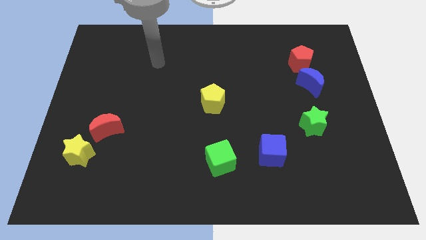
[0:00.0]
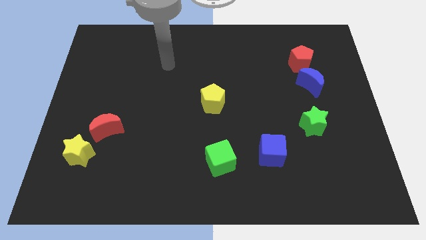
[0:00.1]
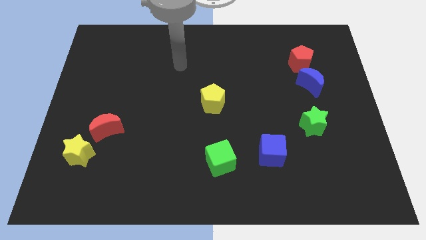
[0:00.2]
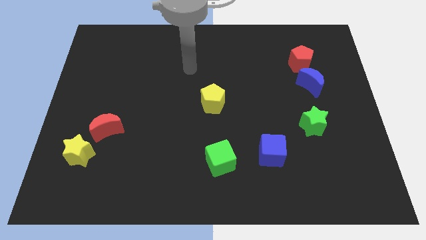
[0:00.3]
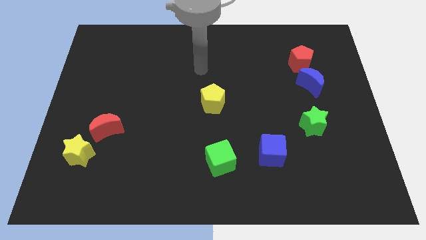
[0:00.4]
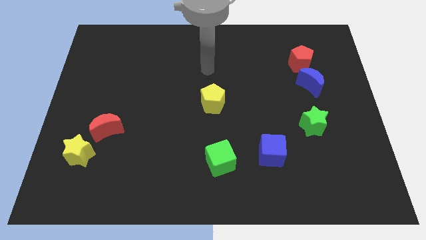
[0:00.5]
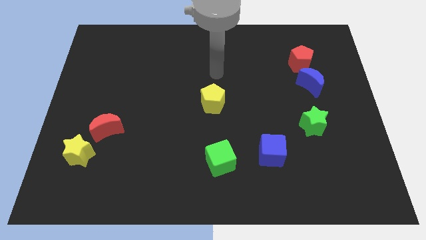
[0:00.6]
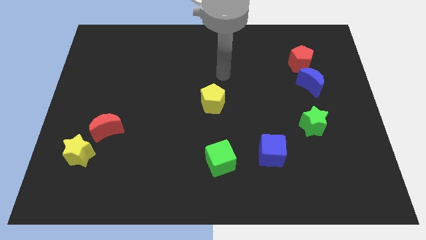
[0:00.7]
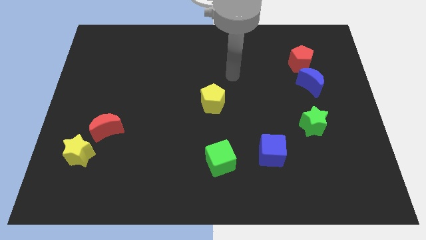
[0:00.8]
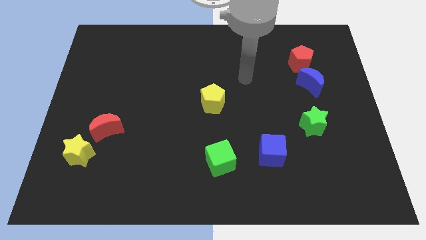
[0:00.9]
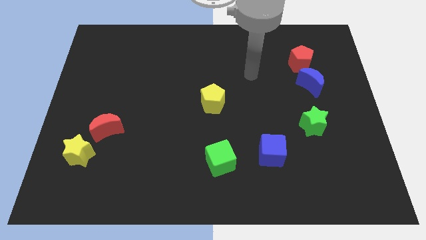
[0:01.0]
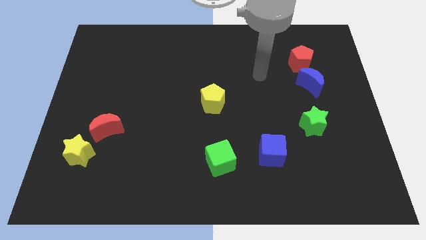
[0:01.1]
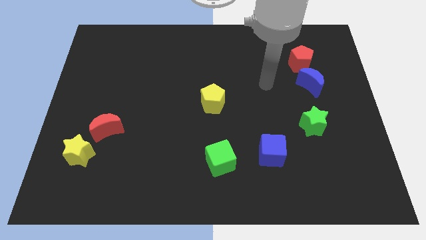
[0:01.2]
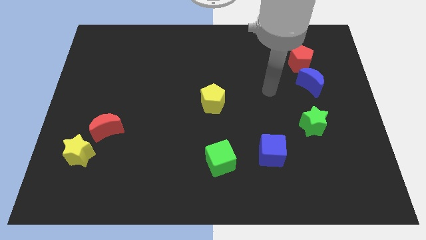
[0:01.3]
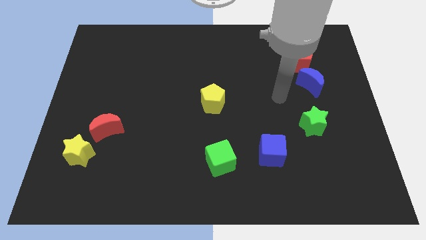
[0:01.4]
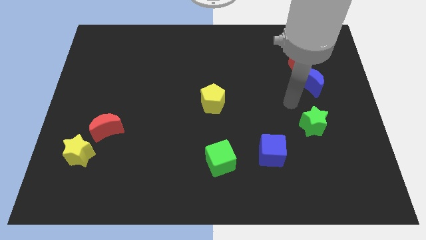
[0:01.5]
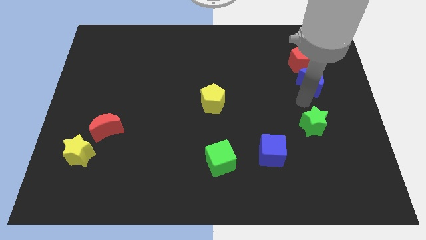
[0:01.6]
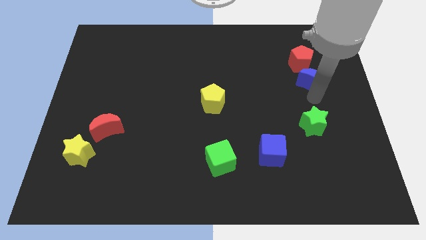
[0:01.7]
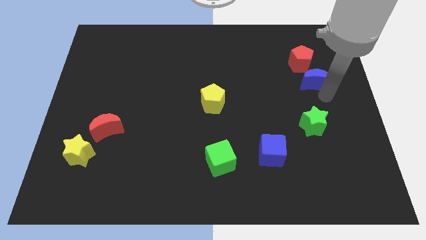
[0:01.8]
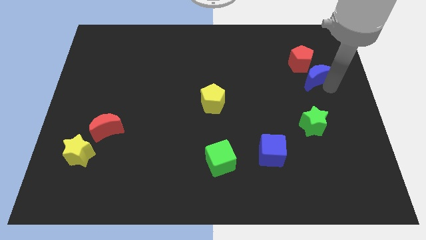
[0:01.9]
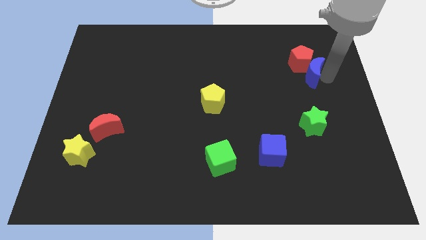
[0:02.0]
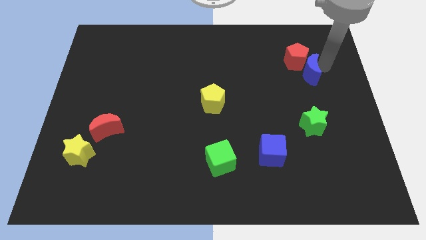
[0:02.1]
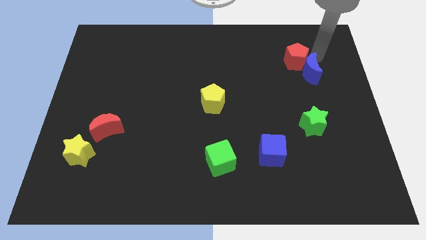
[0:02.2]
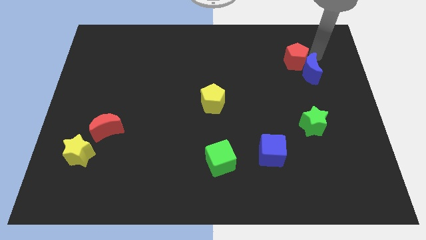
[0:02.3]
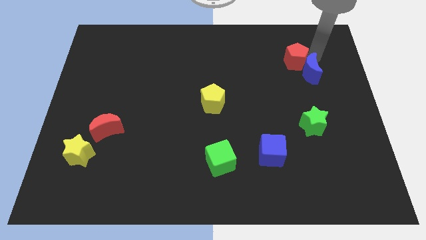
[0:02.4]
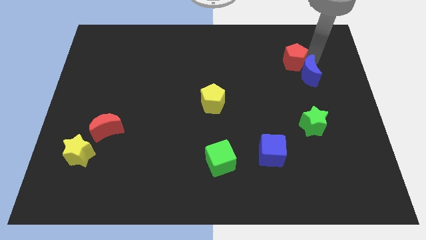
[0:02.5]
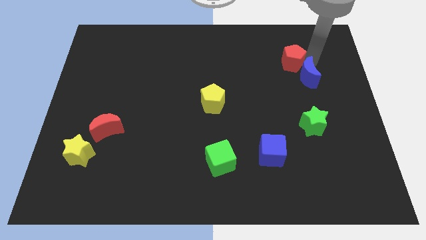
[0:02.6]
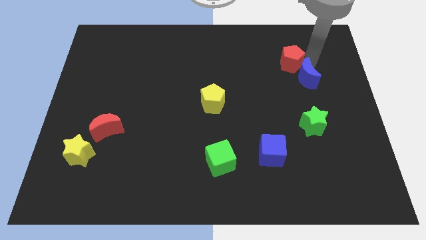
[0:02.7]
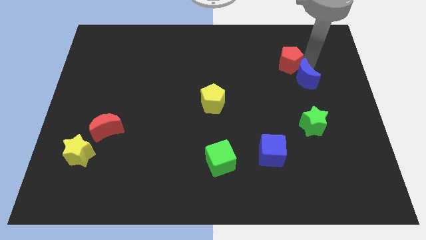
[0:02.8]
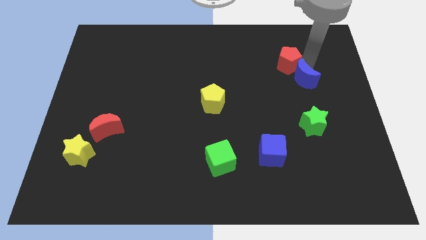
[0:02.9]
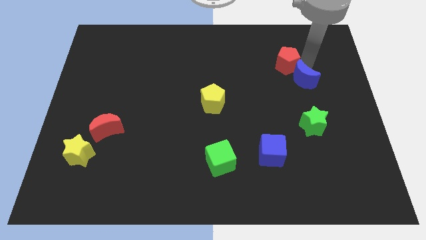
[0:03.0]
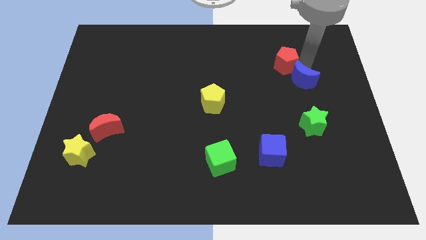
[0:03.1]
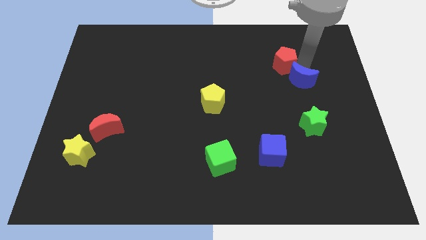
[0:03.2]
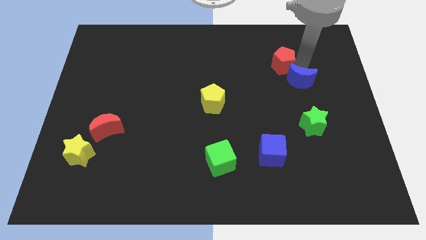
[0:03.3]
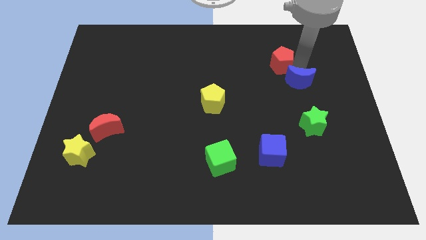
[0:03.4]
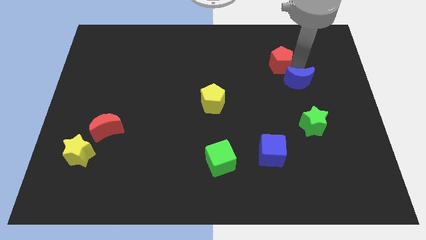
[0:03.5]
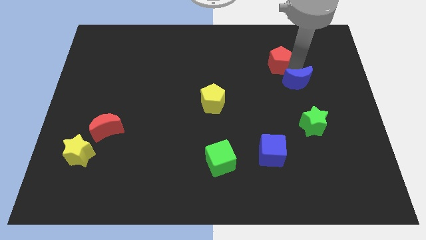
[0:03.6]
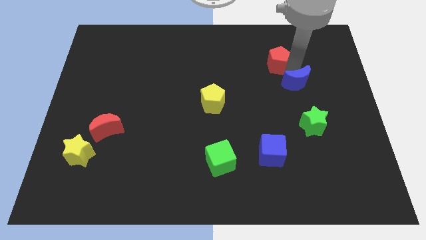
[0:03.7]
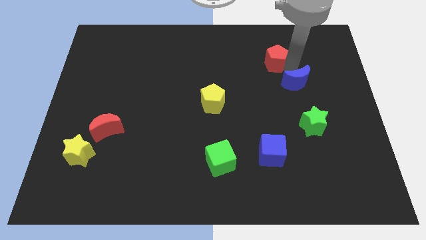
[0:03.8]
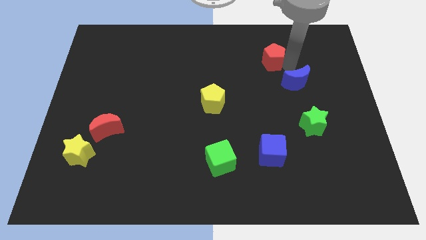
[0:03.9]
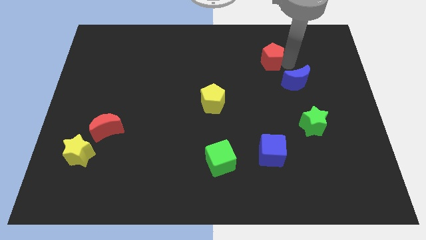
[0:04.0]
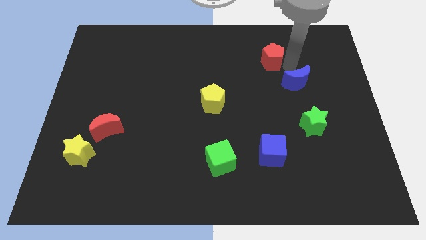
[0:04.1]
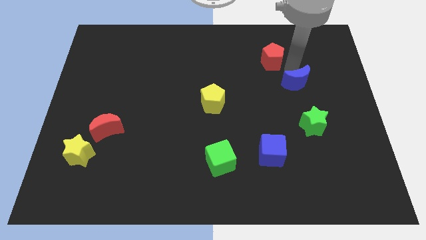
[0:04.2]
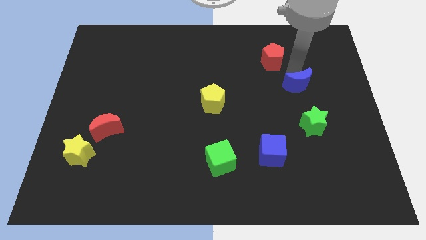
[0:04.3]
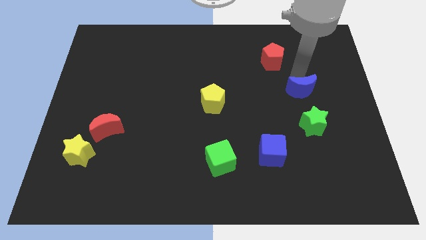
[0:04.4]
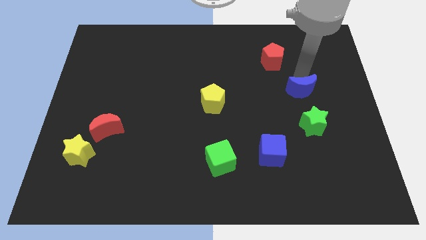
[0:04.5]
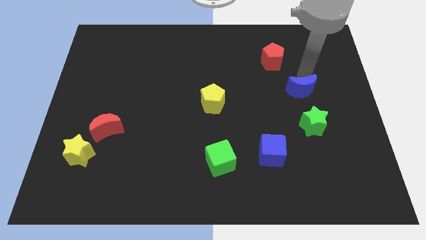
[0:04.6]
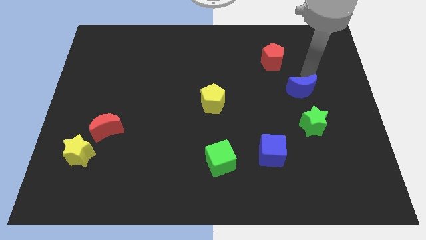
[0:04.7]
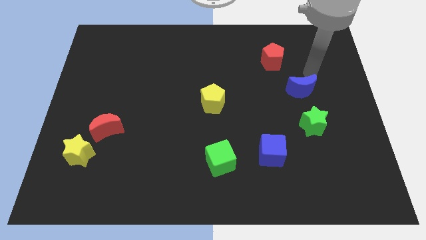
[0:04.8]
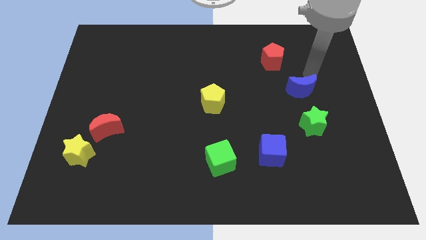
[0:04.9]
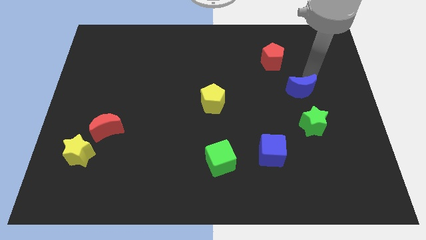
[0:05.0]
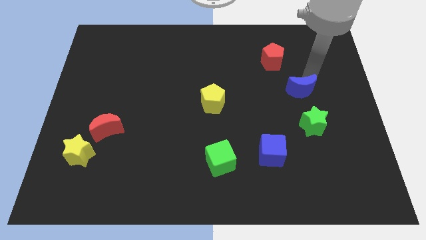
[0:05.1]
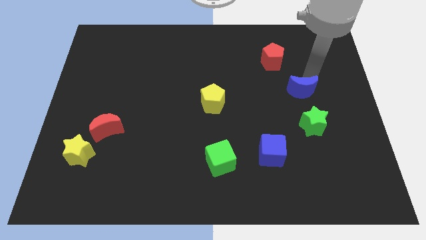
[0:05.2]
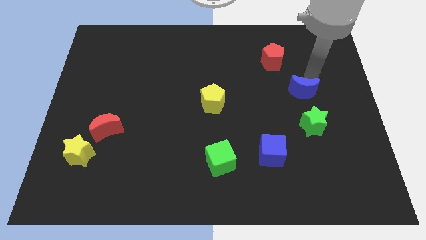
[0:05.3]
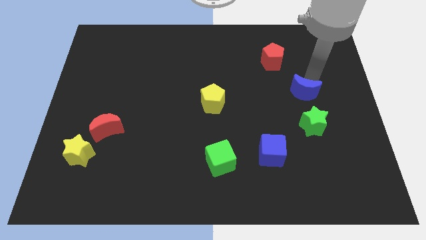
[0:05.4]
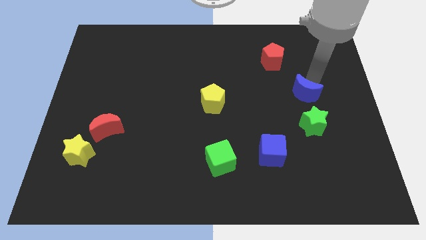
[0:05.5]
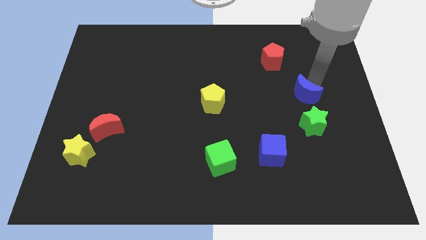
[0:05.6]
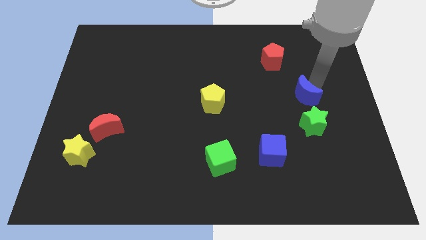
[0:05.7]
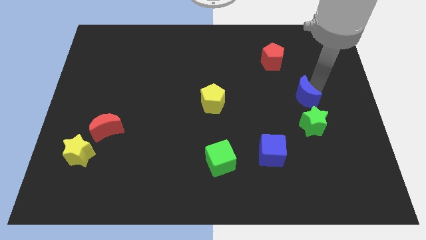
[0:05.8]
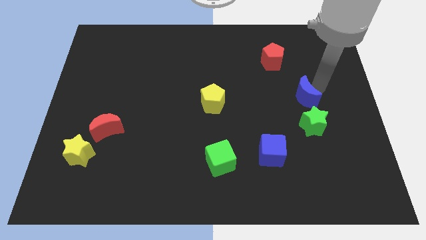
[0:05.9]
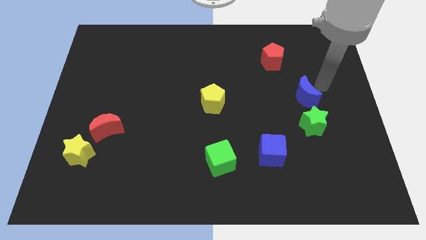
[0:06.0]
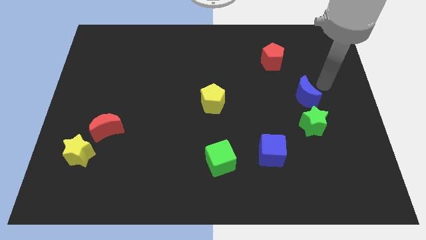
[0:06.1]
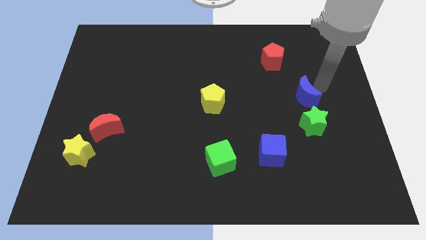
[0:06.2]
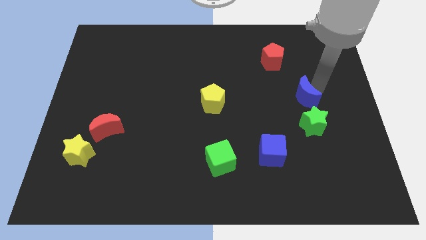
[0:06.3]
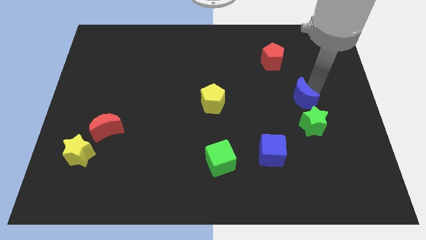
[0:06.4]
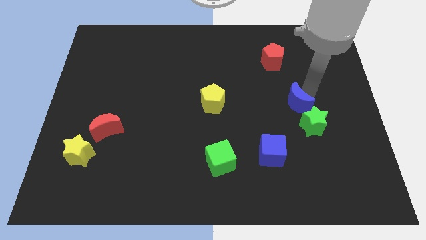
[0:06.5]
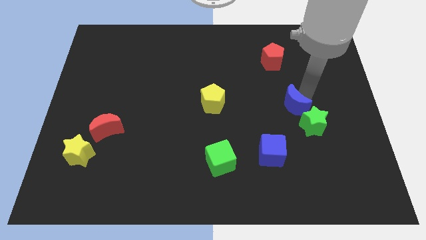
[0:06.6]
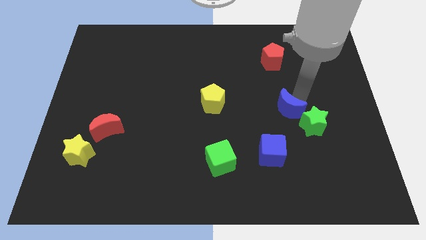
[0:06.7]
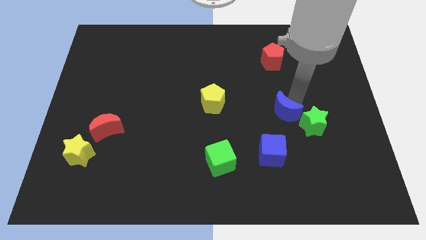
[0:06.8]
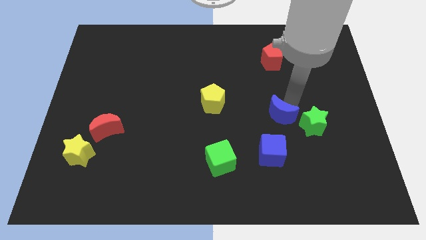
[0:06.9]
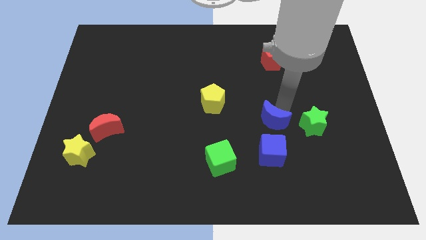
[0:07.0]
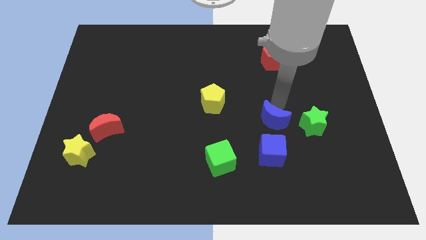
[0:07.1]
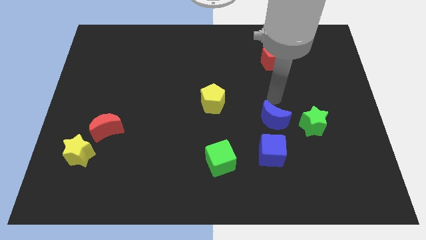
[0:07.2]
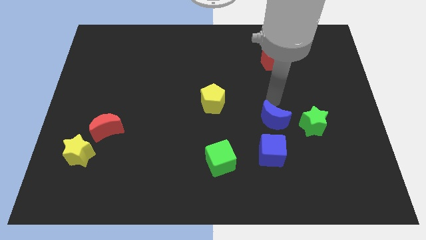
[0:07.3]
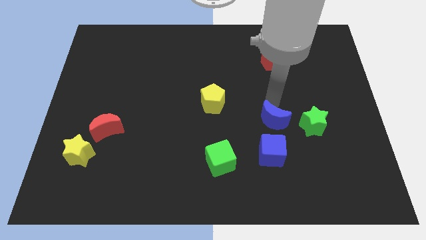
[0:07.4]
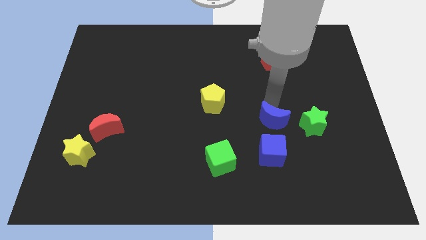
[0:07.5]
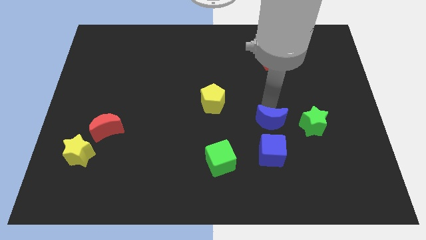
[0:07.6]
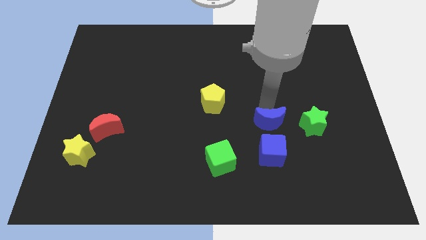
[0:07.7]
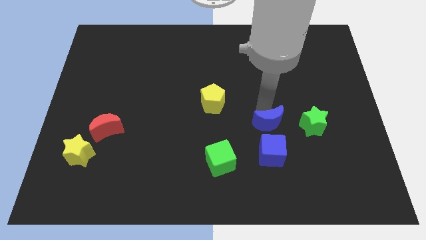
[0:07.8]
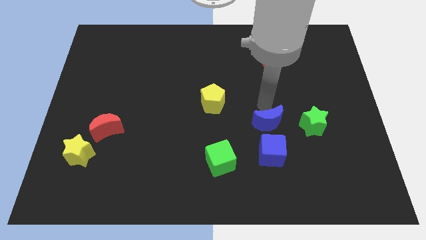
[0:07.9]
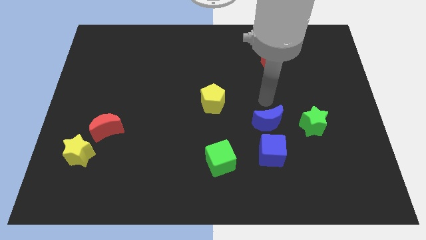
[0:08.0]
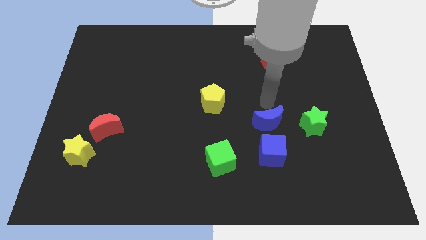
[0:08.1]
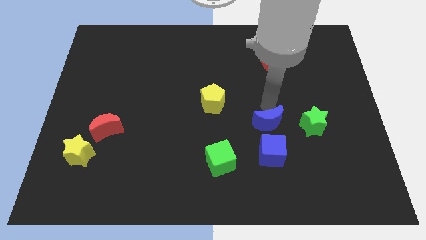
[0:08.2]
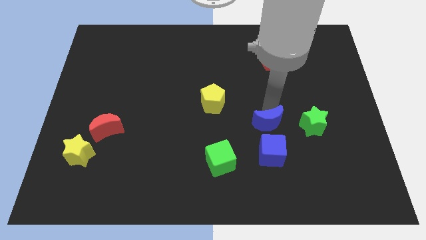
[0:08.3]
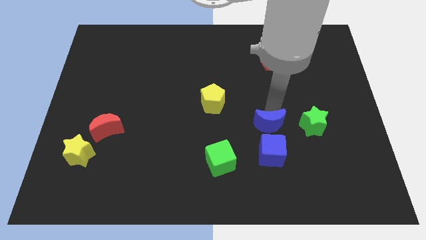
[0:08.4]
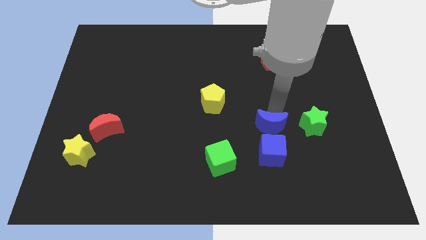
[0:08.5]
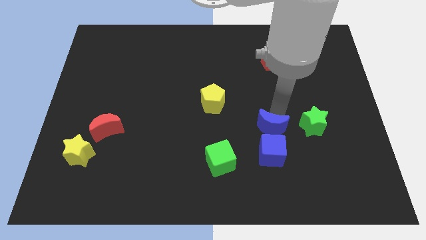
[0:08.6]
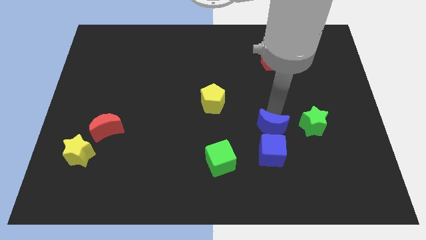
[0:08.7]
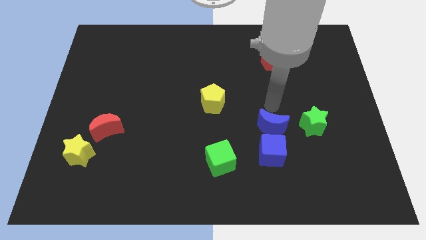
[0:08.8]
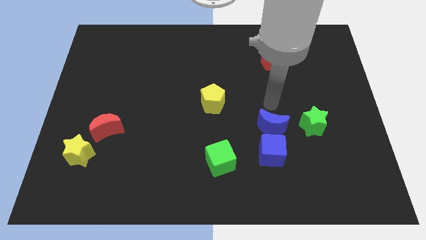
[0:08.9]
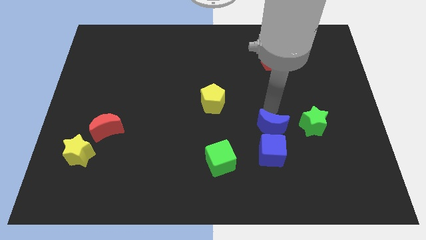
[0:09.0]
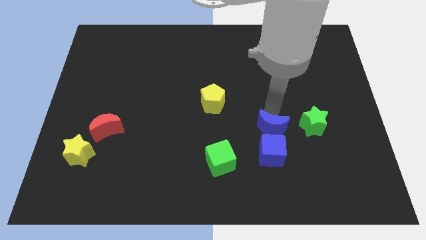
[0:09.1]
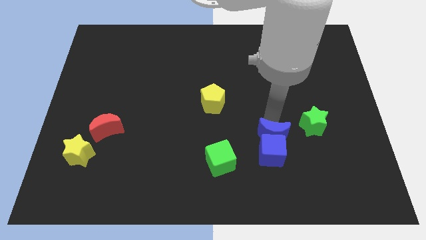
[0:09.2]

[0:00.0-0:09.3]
move the blue moon towards the blue cube
